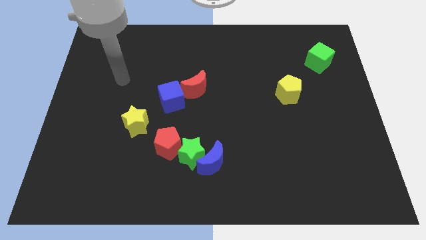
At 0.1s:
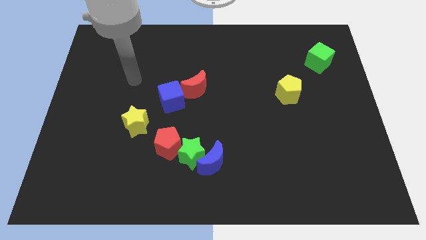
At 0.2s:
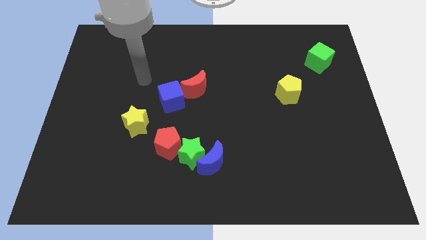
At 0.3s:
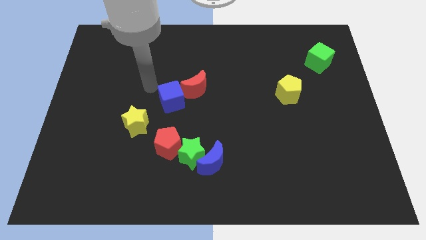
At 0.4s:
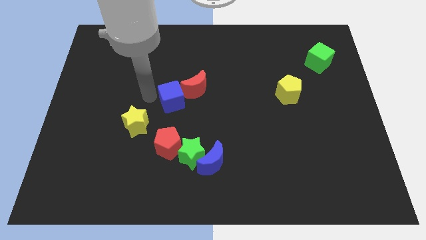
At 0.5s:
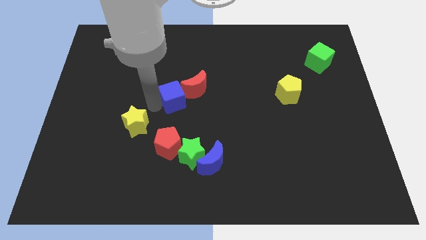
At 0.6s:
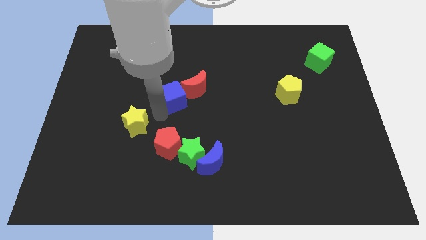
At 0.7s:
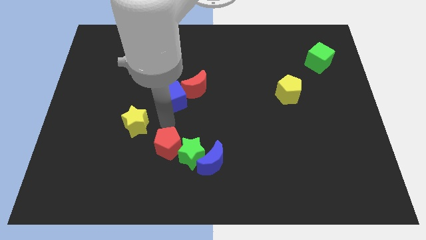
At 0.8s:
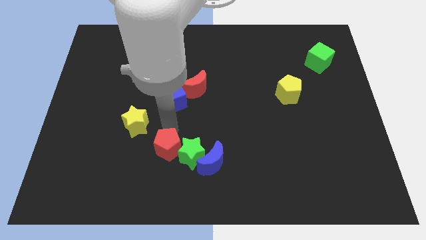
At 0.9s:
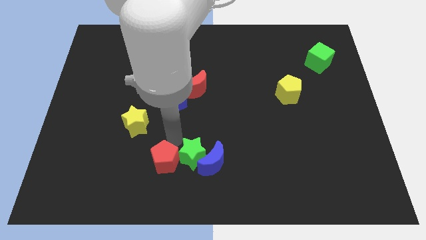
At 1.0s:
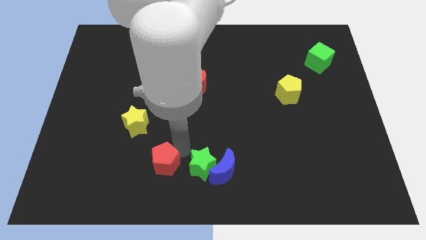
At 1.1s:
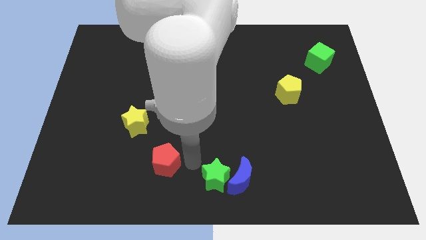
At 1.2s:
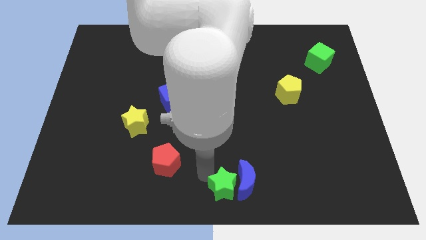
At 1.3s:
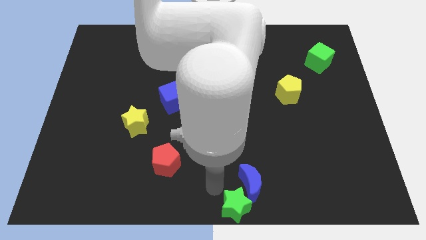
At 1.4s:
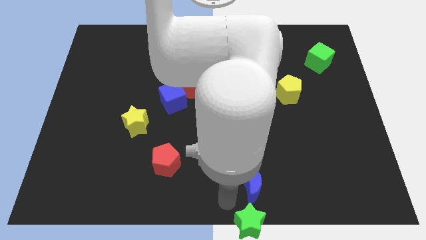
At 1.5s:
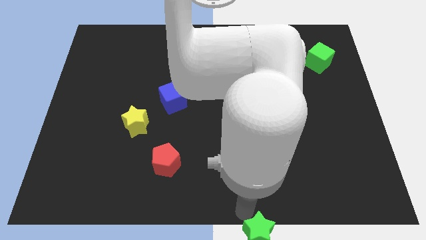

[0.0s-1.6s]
move the blue moon away from the green star

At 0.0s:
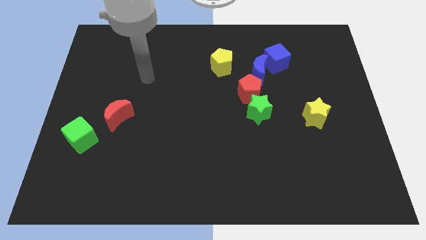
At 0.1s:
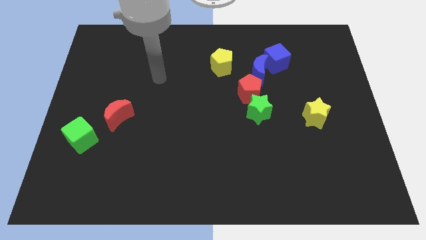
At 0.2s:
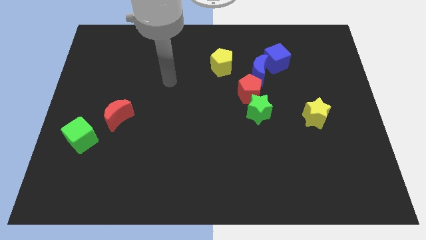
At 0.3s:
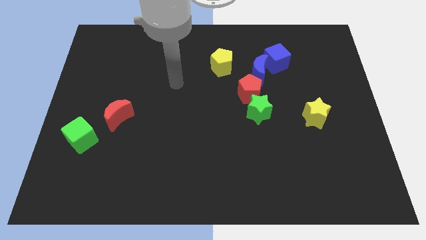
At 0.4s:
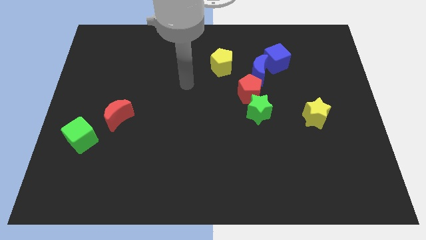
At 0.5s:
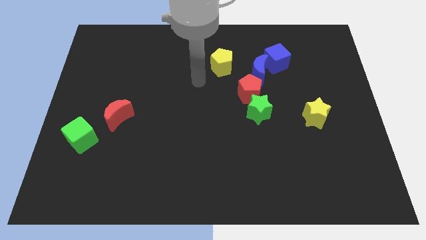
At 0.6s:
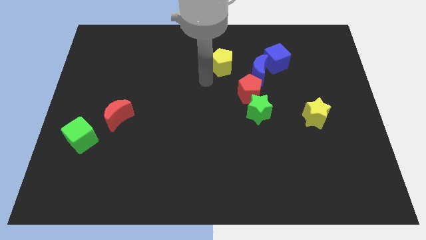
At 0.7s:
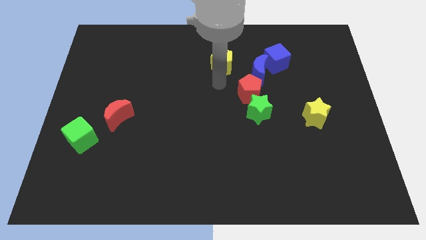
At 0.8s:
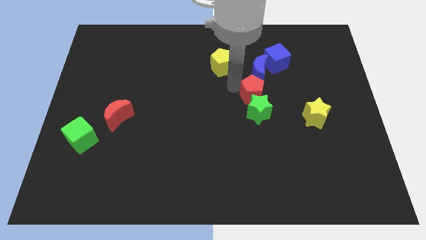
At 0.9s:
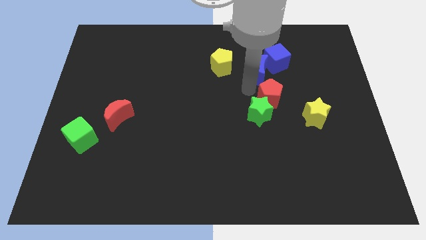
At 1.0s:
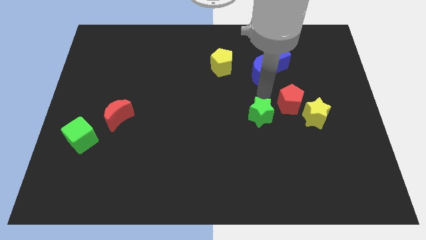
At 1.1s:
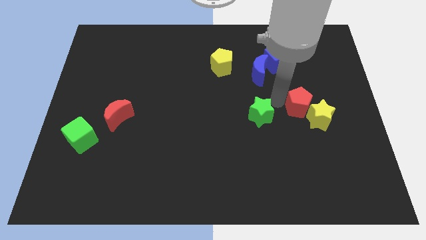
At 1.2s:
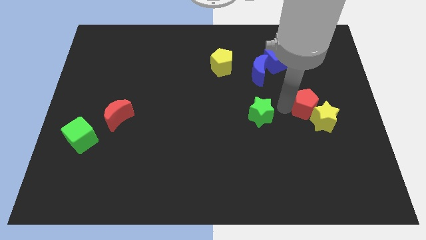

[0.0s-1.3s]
separate the green star from the red pentagon

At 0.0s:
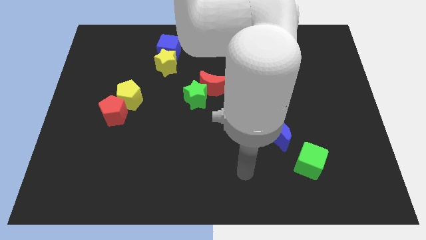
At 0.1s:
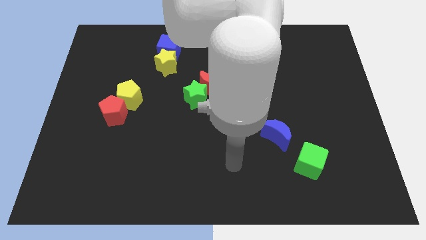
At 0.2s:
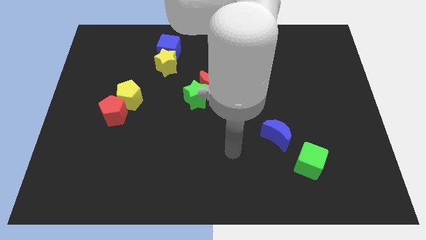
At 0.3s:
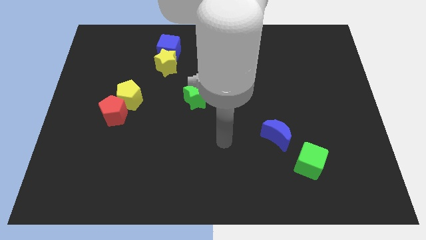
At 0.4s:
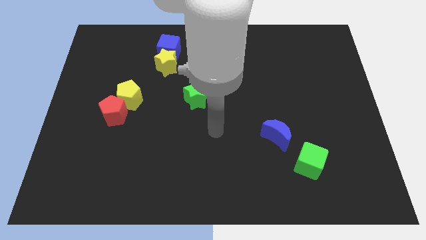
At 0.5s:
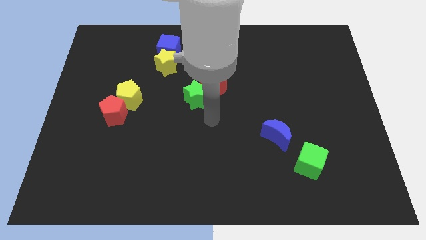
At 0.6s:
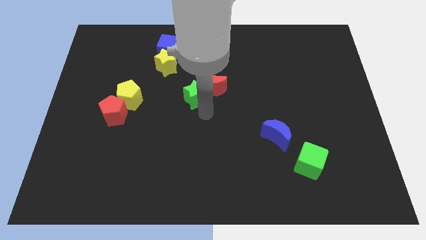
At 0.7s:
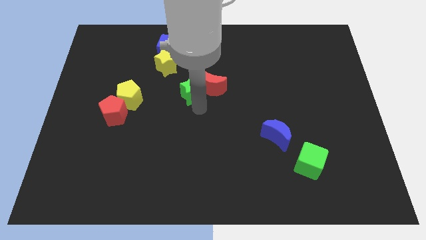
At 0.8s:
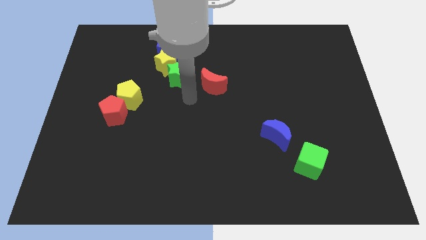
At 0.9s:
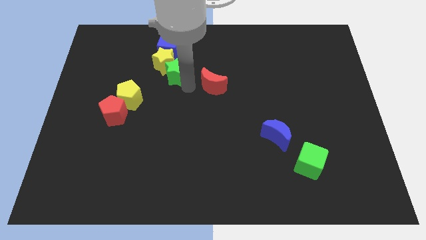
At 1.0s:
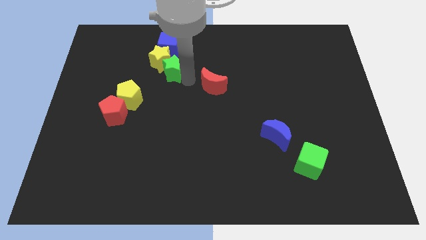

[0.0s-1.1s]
pull the red moon apart from the green star

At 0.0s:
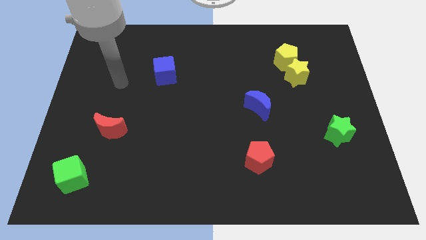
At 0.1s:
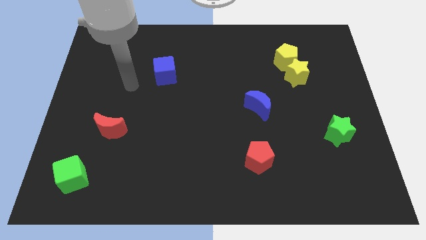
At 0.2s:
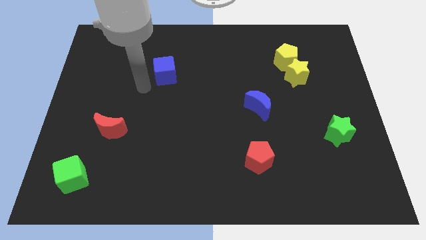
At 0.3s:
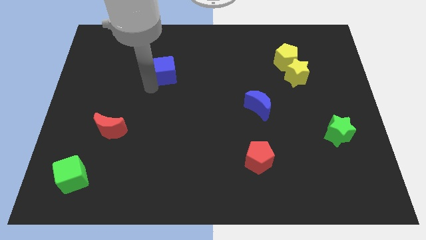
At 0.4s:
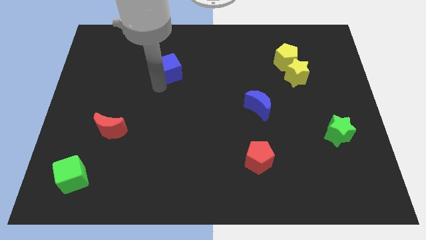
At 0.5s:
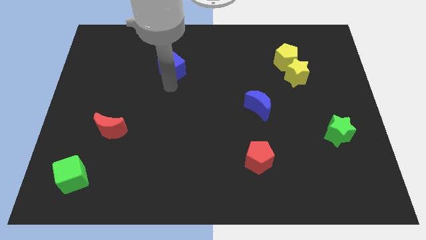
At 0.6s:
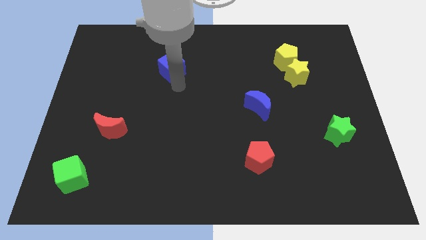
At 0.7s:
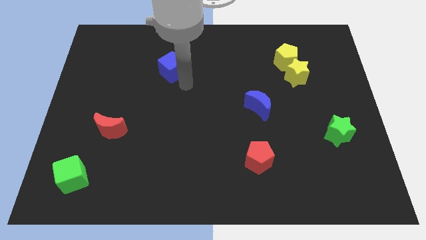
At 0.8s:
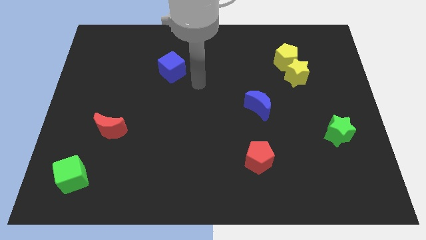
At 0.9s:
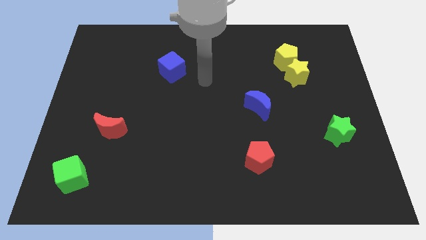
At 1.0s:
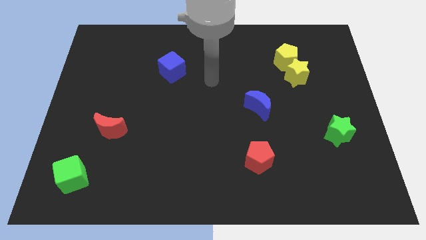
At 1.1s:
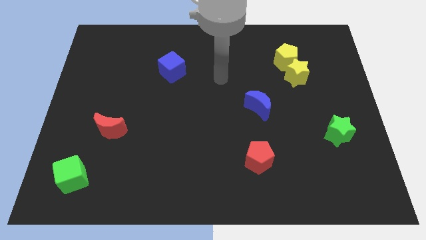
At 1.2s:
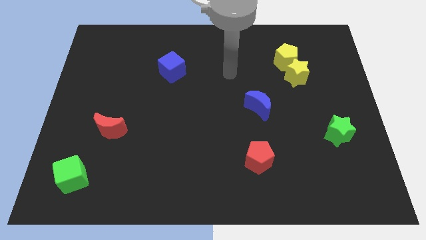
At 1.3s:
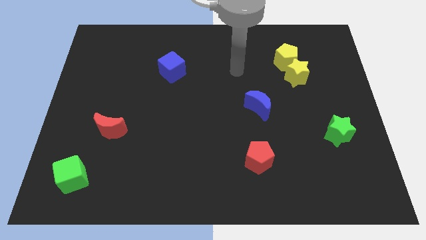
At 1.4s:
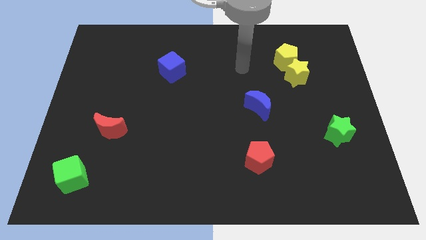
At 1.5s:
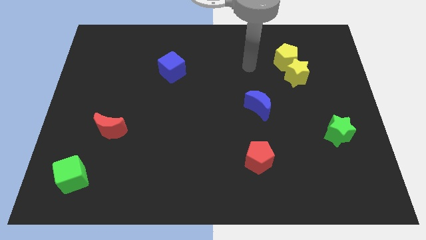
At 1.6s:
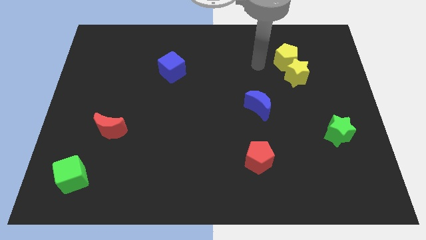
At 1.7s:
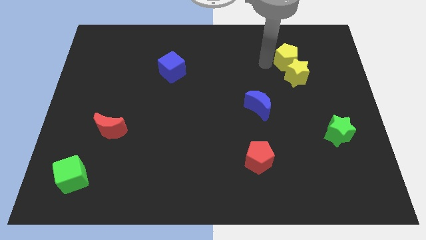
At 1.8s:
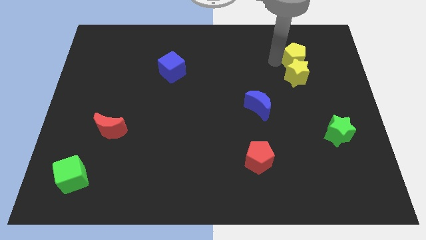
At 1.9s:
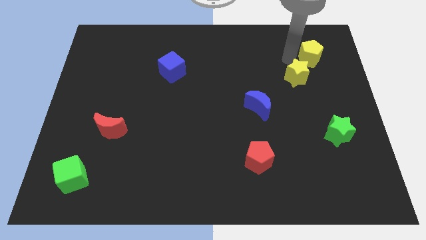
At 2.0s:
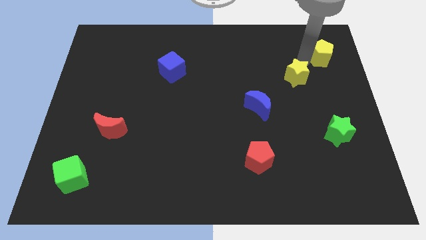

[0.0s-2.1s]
separate the yellow star from the yellow pentagon

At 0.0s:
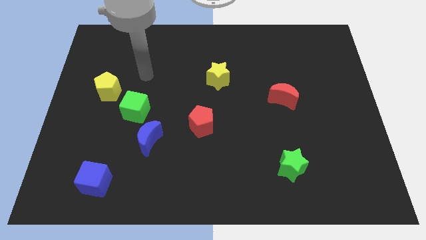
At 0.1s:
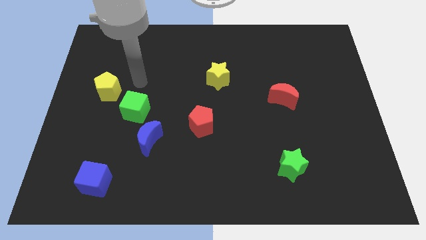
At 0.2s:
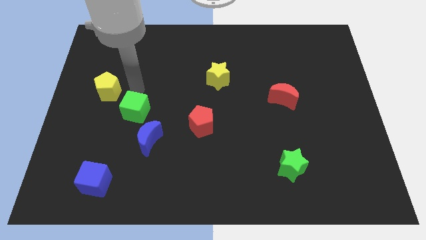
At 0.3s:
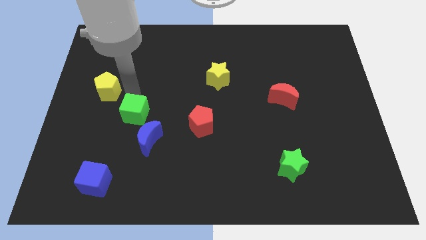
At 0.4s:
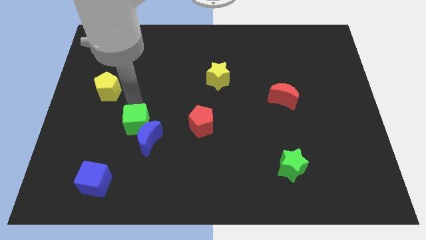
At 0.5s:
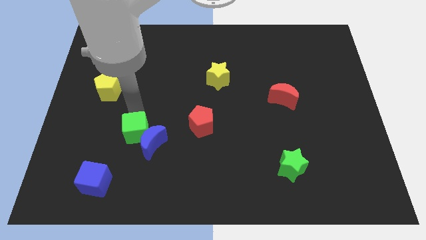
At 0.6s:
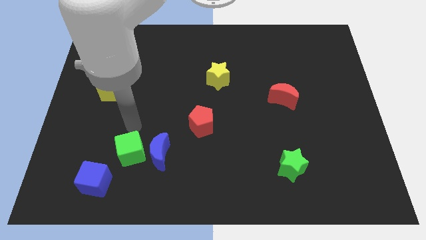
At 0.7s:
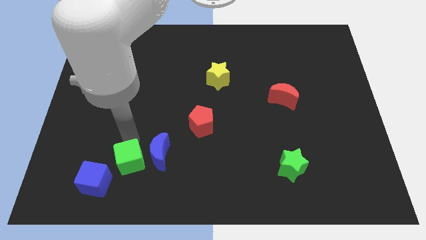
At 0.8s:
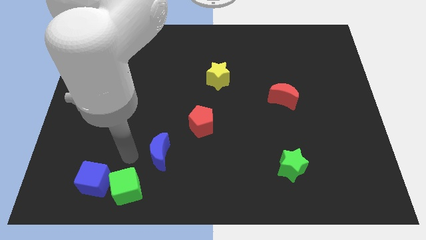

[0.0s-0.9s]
pull the blue moon apart from the green cube

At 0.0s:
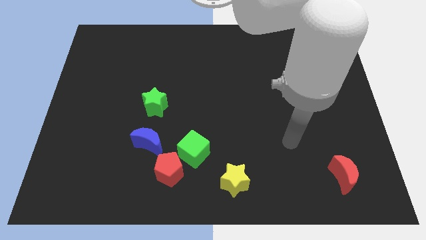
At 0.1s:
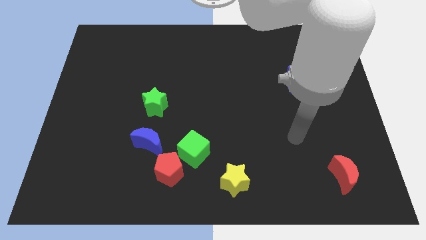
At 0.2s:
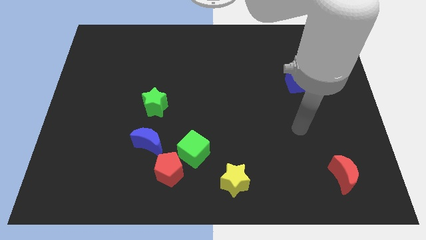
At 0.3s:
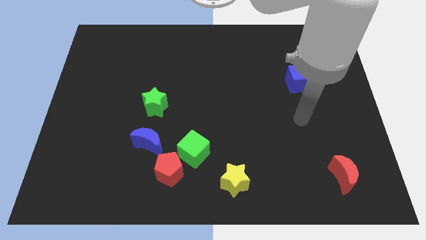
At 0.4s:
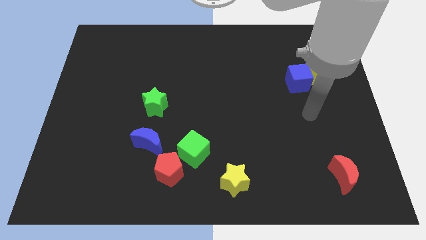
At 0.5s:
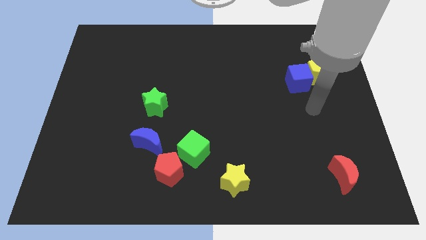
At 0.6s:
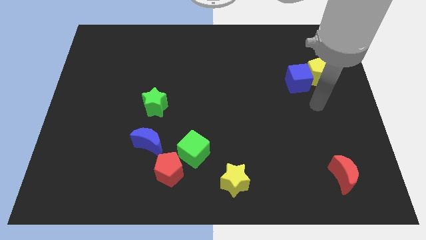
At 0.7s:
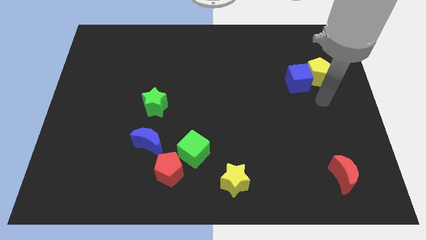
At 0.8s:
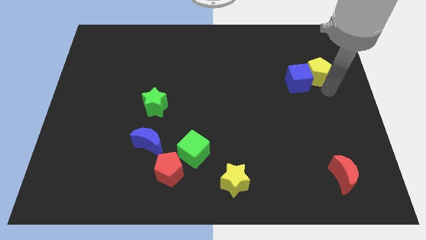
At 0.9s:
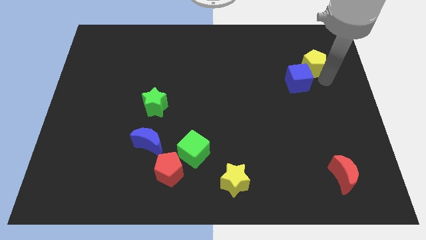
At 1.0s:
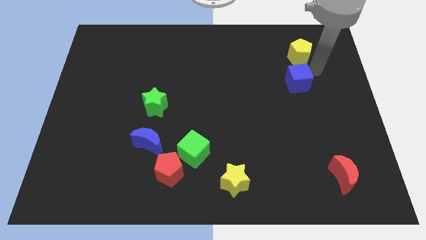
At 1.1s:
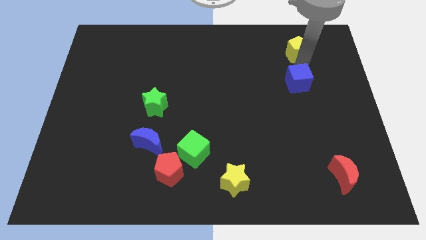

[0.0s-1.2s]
move the blue cube away from the yellow pentagon

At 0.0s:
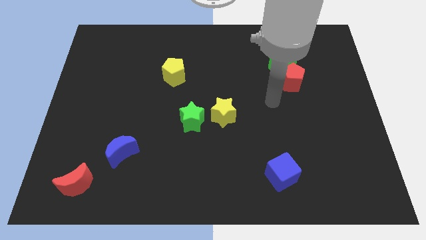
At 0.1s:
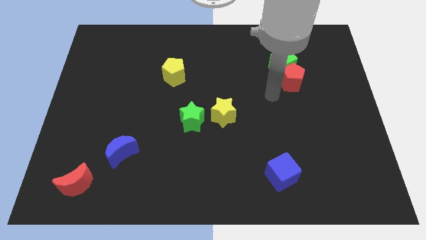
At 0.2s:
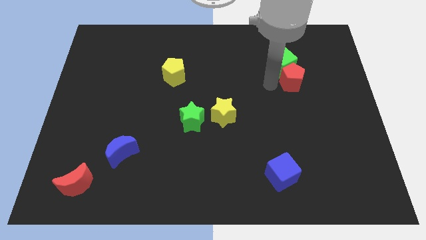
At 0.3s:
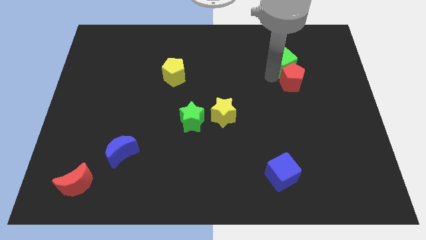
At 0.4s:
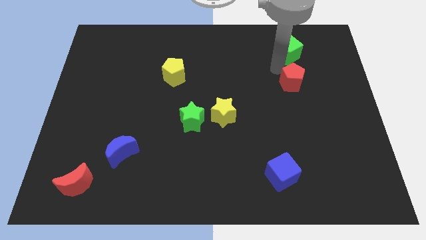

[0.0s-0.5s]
separate the red pentagon from the green cube

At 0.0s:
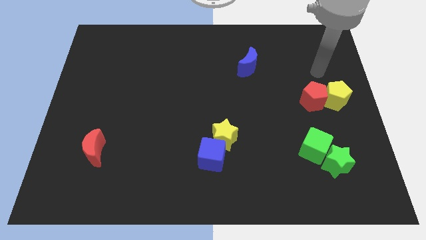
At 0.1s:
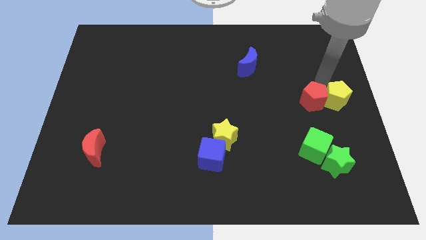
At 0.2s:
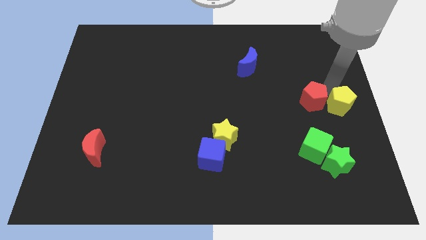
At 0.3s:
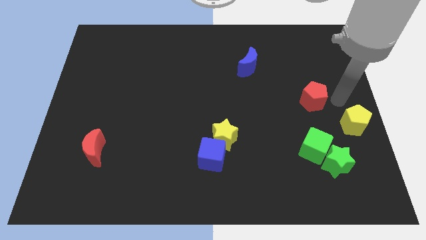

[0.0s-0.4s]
pull the red pentagon apart from the yellow pentagon

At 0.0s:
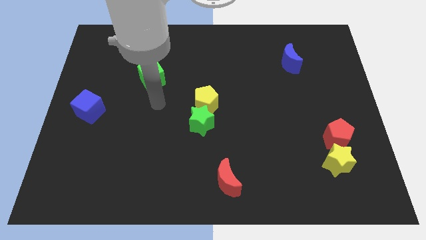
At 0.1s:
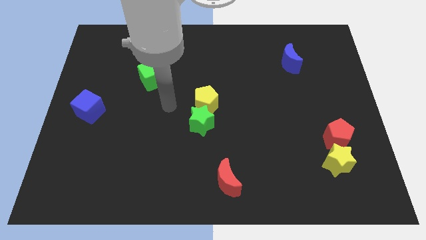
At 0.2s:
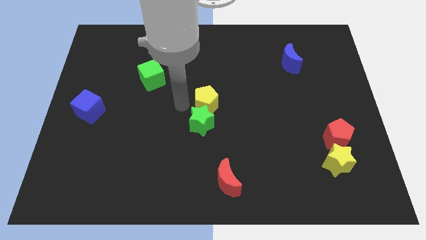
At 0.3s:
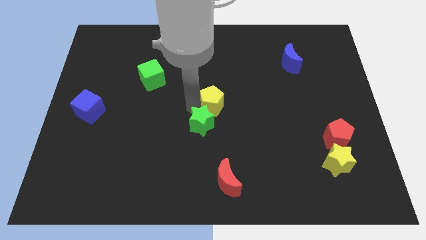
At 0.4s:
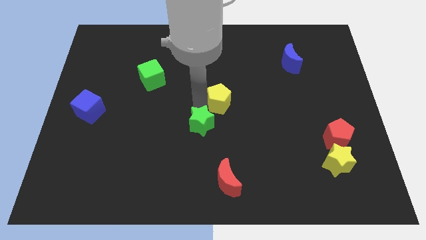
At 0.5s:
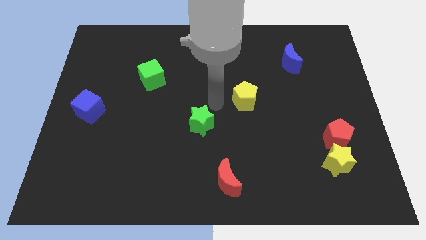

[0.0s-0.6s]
pull the green star apart from the yellow pentagon
